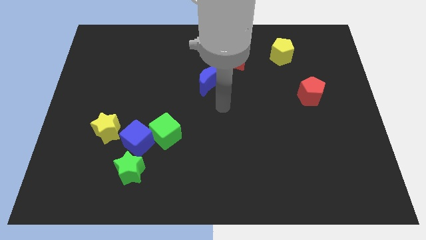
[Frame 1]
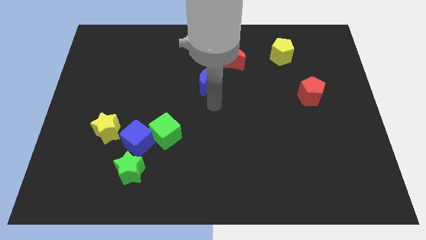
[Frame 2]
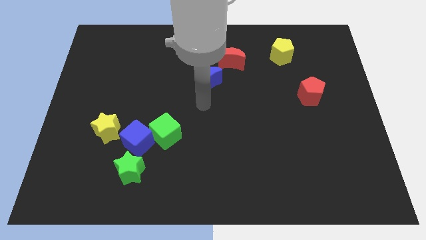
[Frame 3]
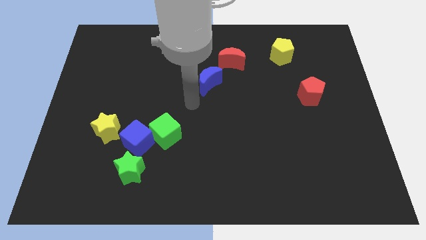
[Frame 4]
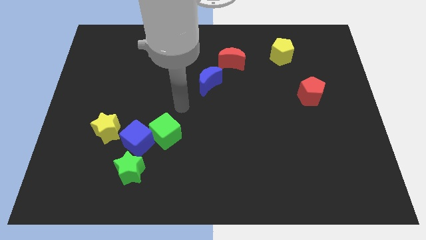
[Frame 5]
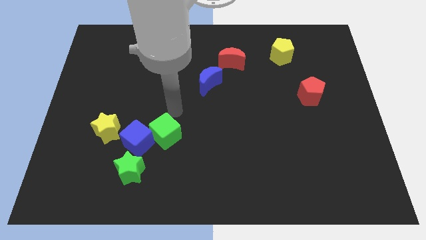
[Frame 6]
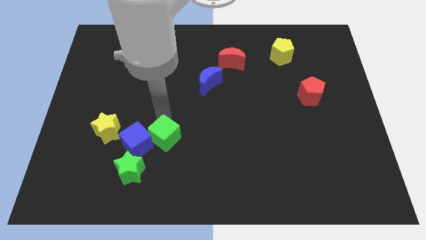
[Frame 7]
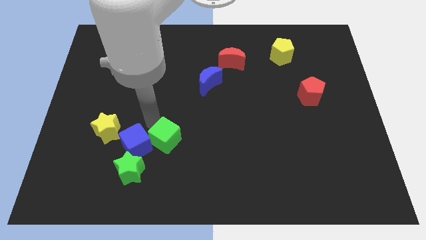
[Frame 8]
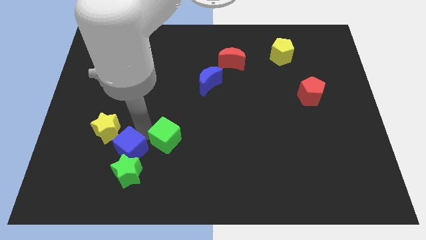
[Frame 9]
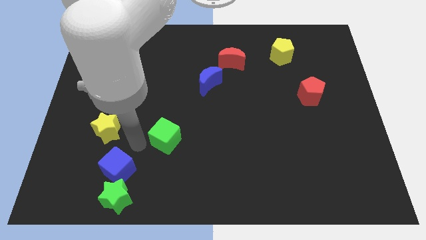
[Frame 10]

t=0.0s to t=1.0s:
move the green cube away from the blue cube

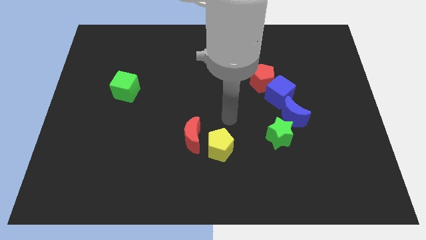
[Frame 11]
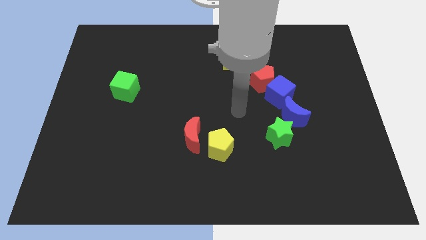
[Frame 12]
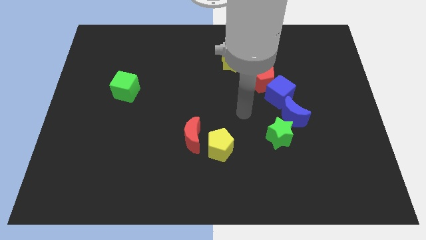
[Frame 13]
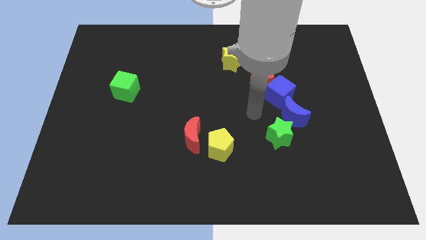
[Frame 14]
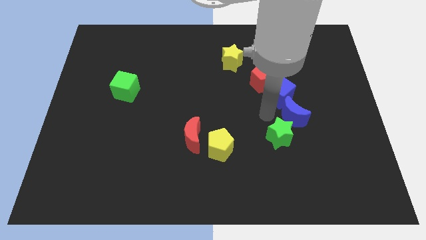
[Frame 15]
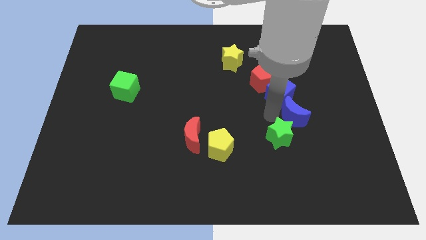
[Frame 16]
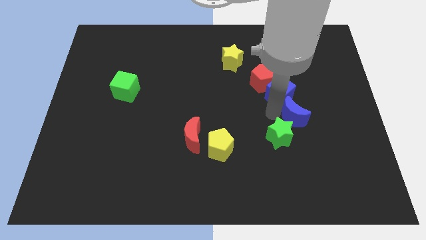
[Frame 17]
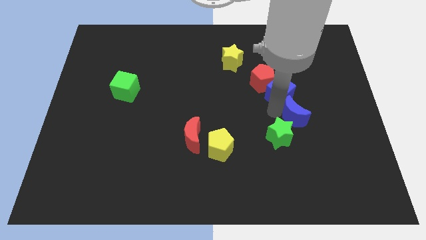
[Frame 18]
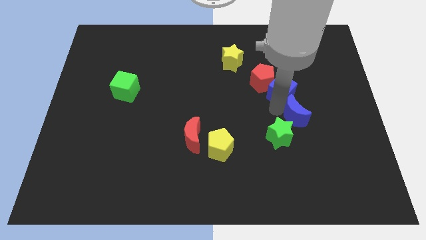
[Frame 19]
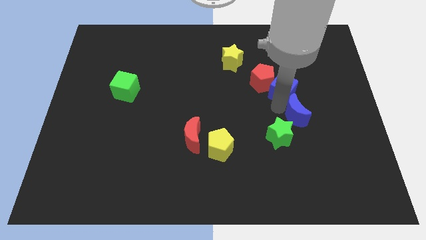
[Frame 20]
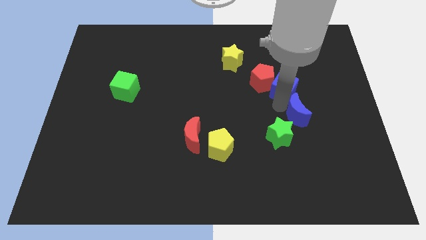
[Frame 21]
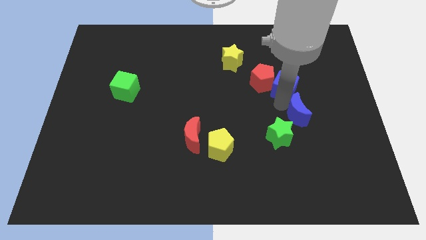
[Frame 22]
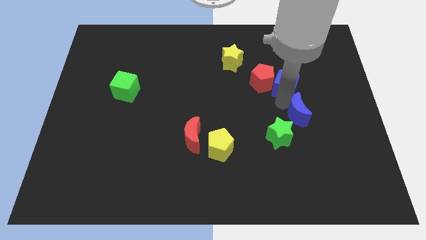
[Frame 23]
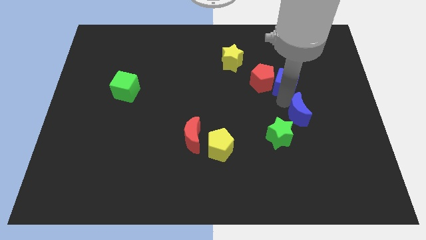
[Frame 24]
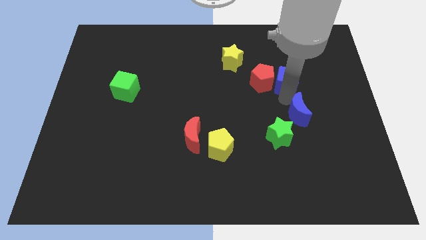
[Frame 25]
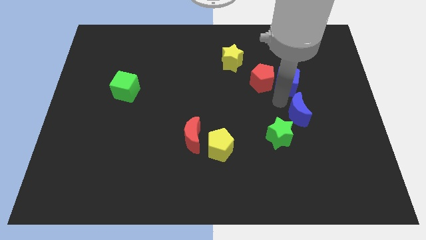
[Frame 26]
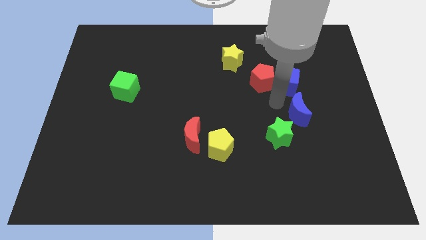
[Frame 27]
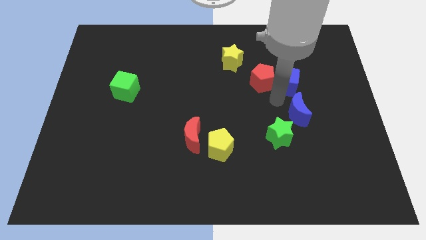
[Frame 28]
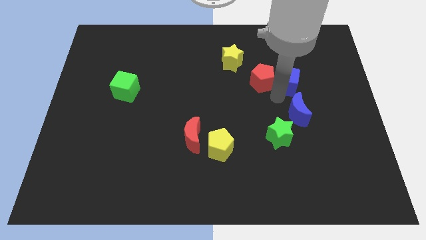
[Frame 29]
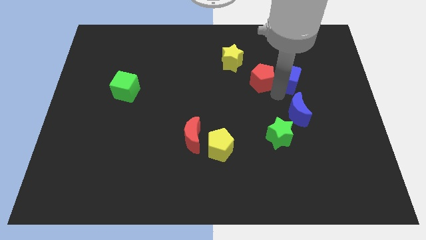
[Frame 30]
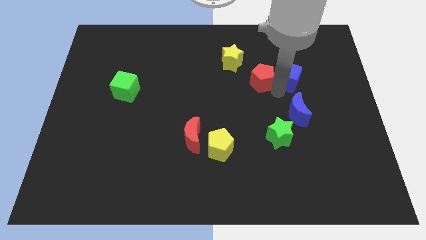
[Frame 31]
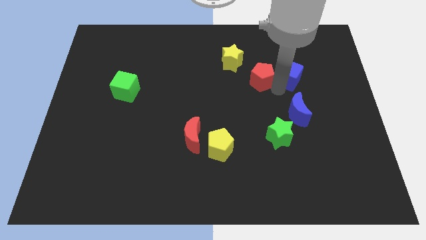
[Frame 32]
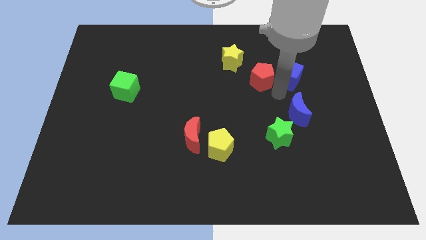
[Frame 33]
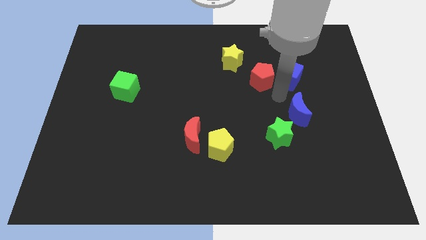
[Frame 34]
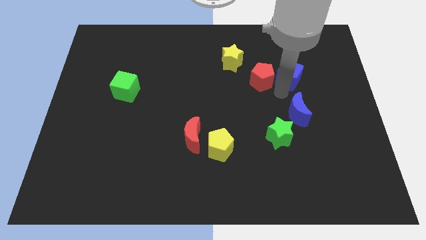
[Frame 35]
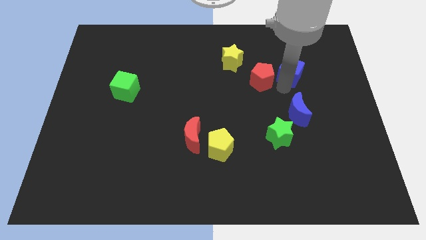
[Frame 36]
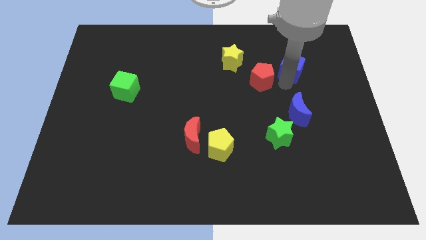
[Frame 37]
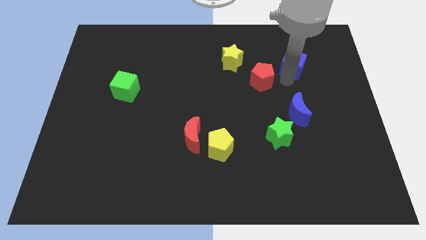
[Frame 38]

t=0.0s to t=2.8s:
move the blue cube away from the red pentagon and blue moon

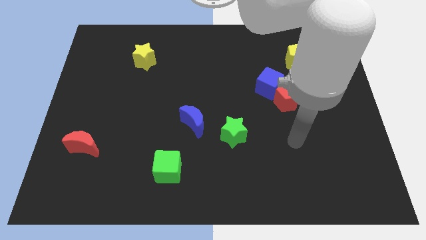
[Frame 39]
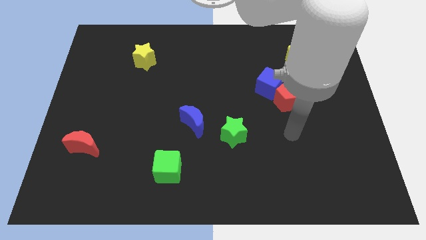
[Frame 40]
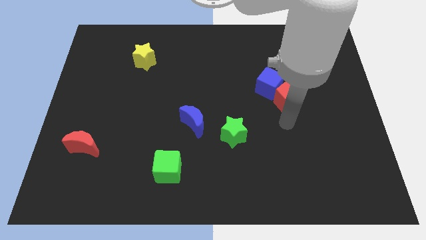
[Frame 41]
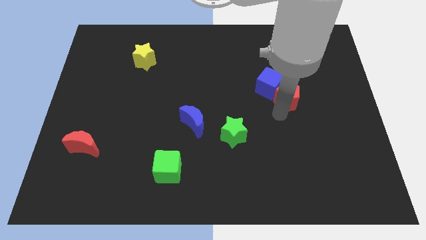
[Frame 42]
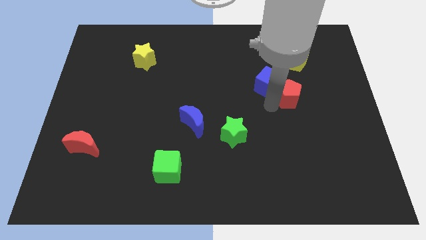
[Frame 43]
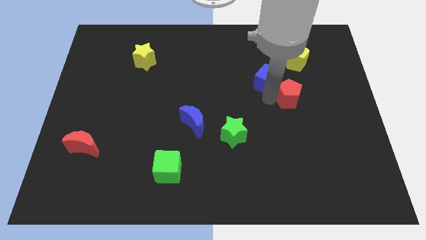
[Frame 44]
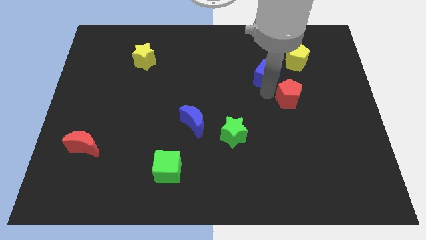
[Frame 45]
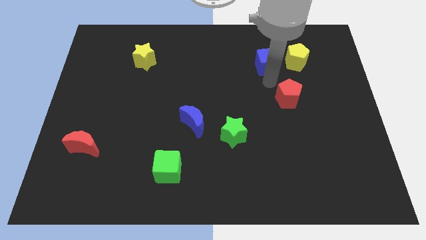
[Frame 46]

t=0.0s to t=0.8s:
separate the red pentagon from the blue cube

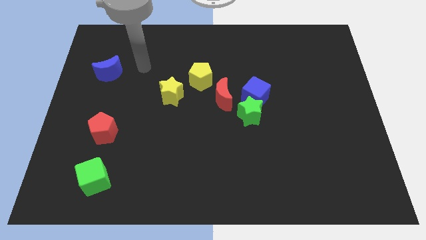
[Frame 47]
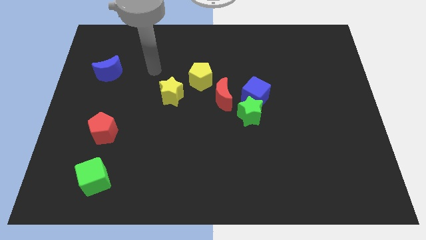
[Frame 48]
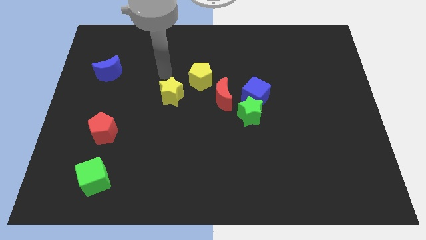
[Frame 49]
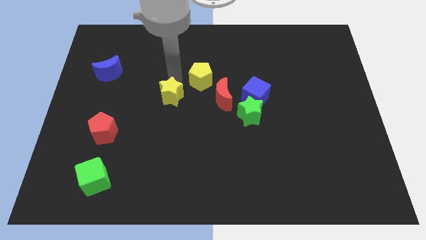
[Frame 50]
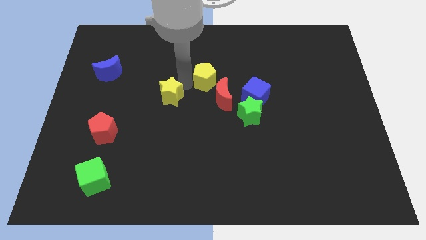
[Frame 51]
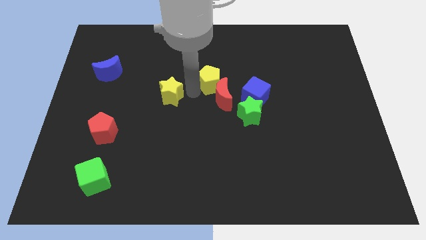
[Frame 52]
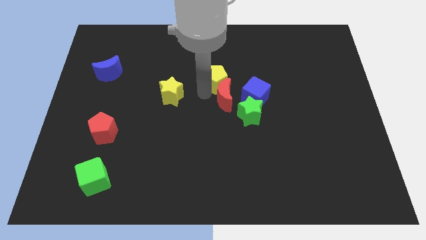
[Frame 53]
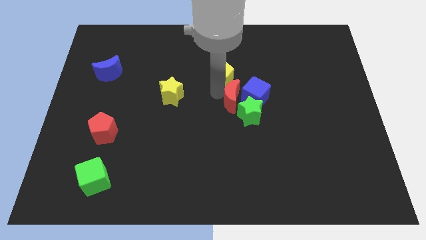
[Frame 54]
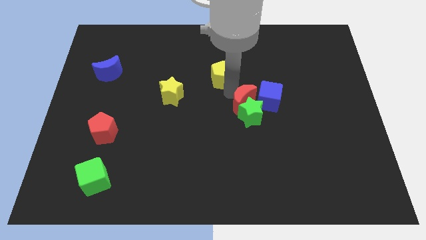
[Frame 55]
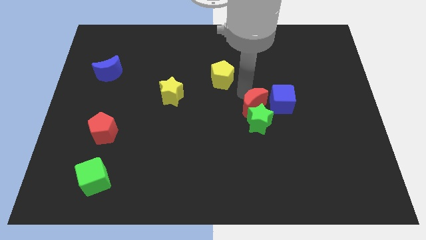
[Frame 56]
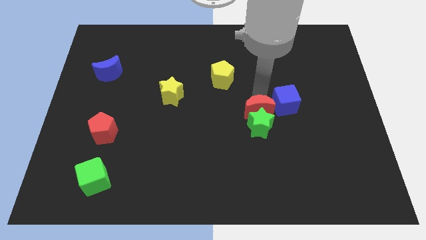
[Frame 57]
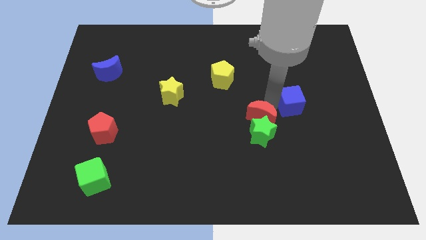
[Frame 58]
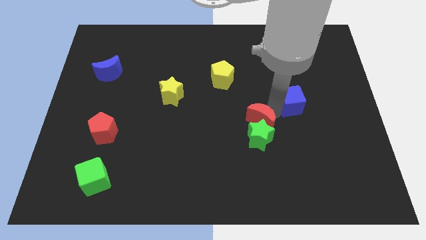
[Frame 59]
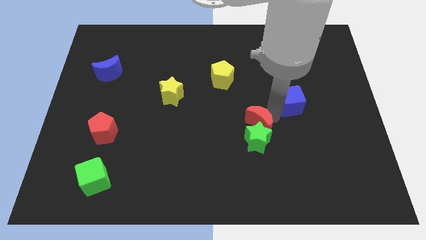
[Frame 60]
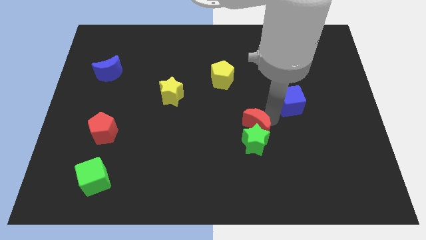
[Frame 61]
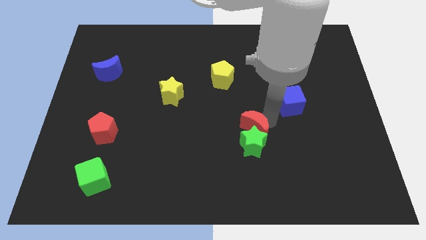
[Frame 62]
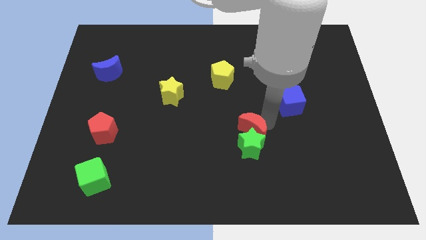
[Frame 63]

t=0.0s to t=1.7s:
pull the green star apart from the blue cube and red moon

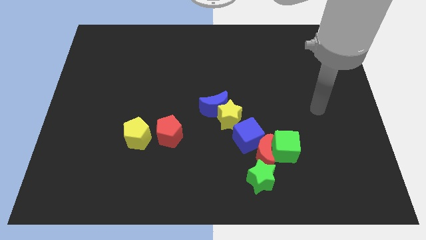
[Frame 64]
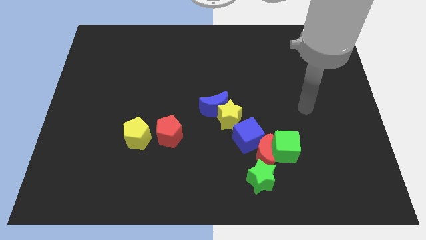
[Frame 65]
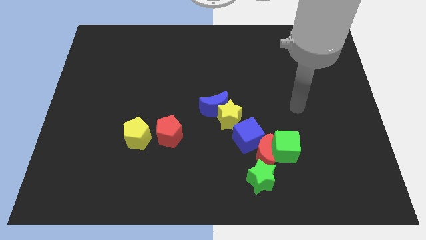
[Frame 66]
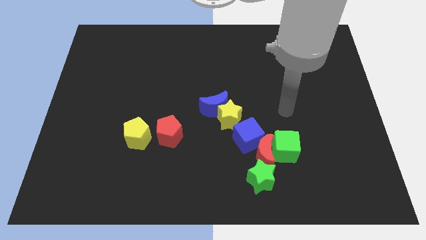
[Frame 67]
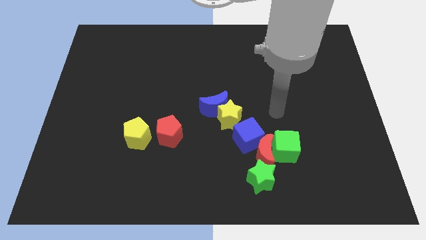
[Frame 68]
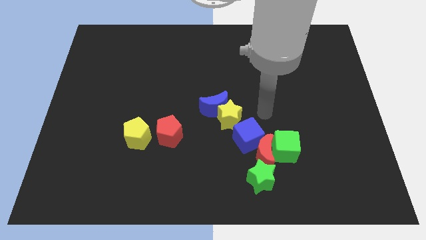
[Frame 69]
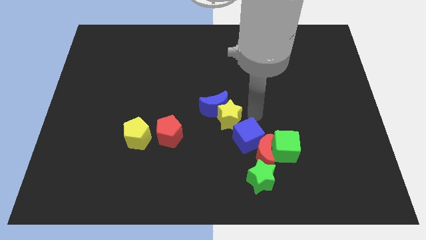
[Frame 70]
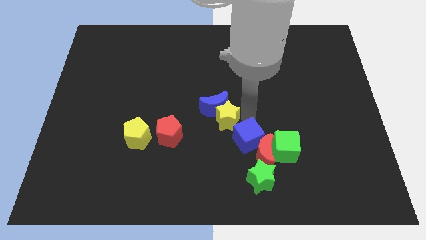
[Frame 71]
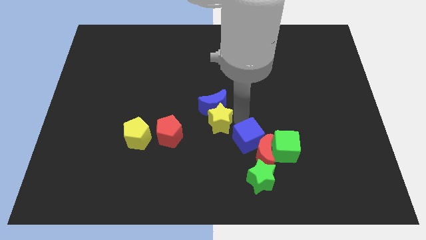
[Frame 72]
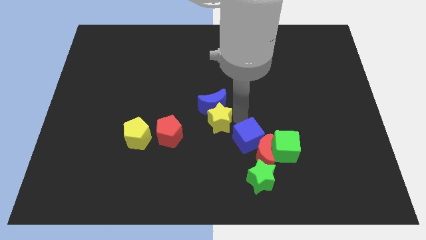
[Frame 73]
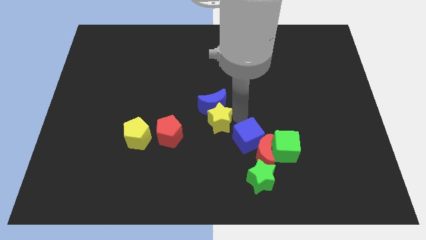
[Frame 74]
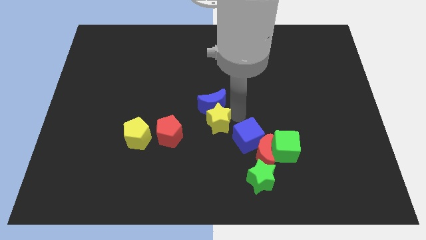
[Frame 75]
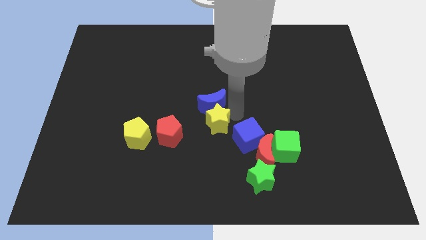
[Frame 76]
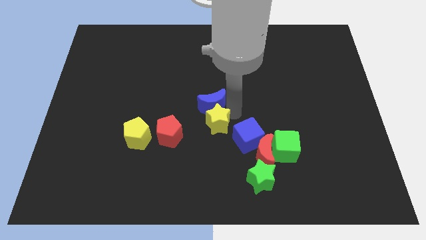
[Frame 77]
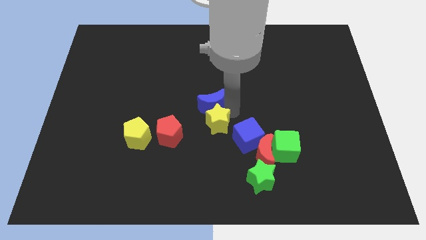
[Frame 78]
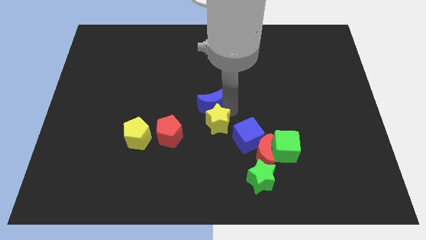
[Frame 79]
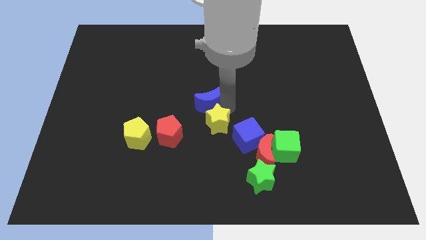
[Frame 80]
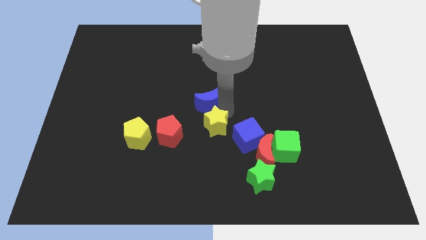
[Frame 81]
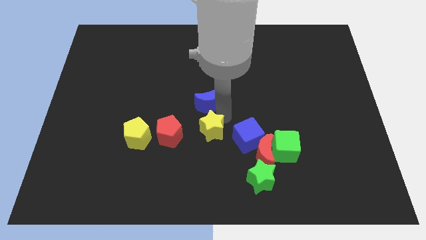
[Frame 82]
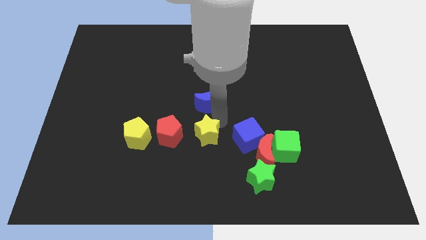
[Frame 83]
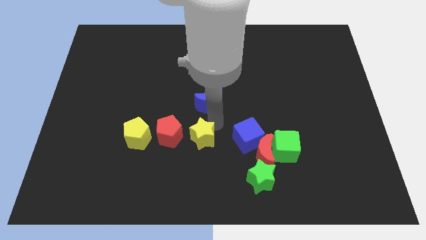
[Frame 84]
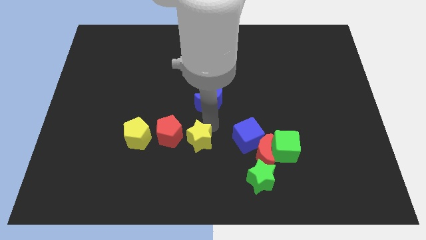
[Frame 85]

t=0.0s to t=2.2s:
move the blue moon away from the yellow star

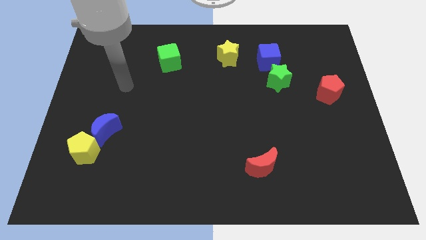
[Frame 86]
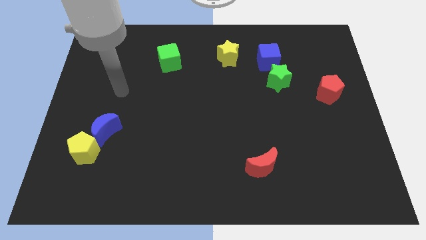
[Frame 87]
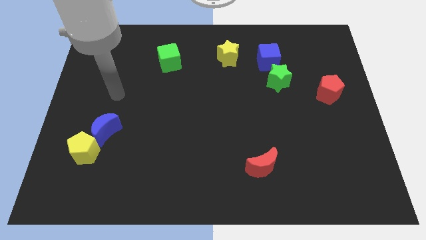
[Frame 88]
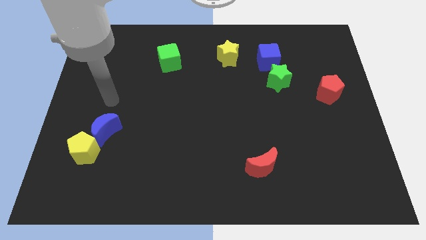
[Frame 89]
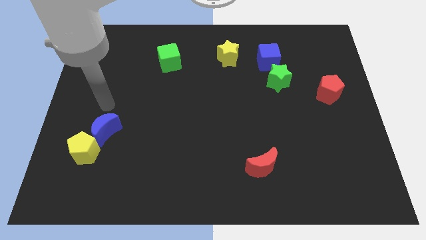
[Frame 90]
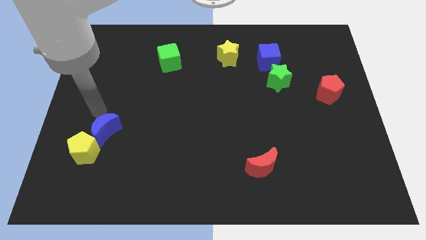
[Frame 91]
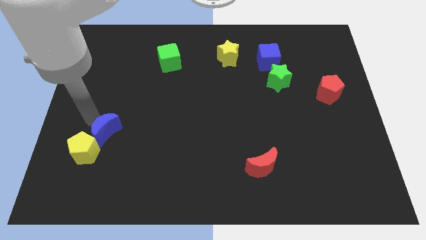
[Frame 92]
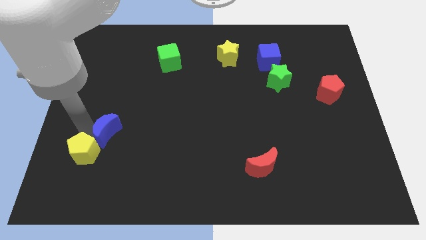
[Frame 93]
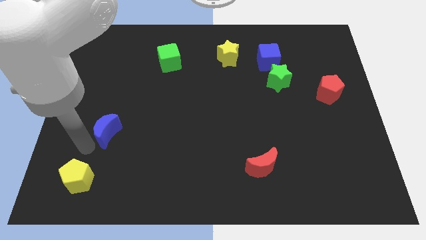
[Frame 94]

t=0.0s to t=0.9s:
move the blue moon away from the yellow pentagon
